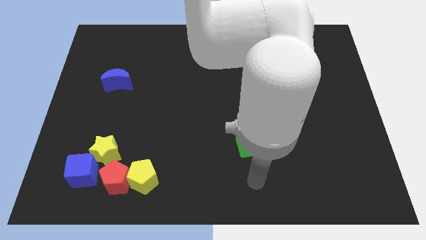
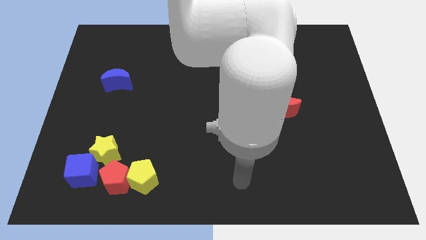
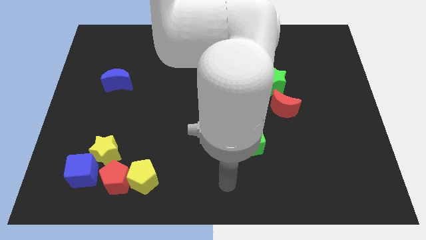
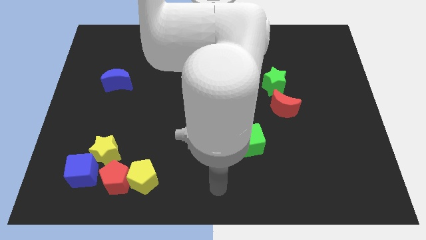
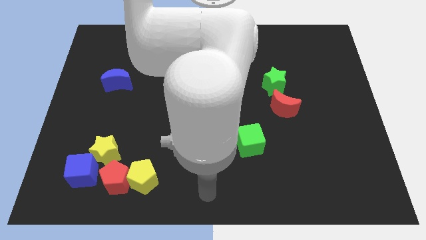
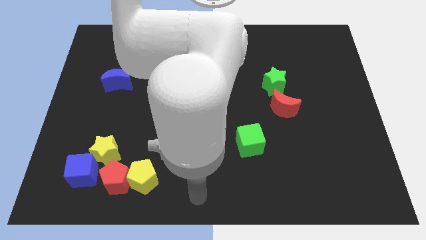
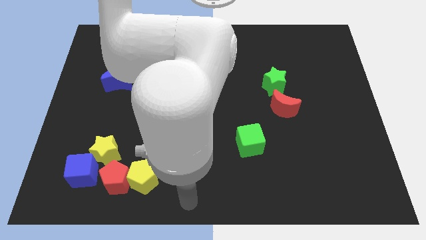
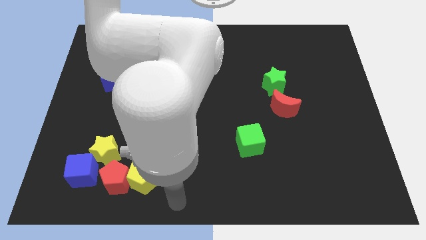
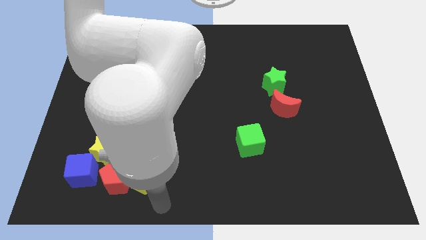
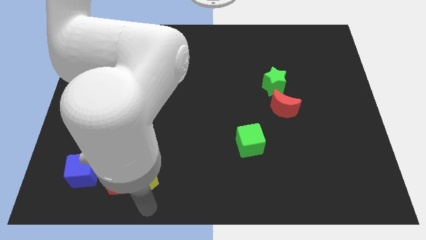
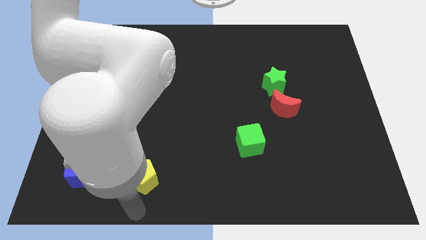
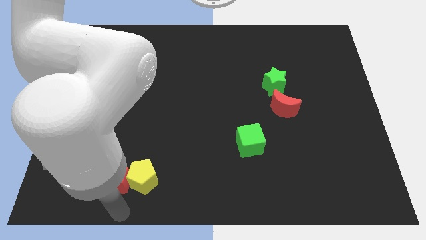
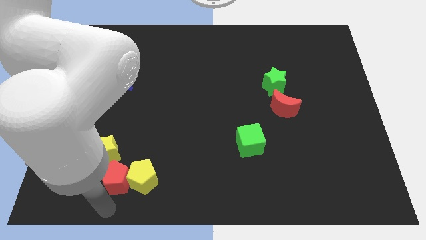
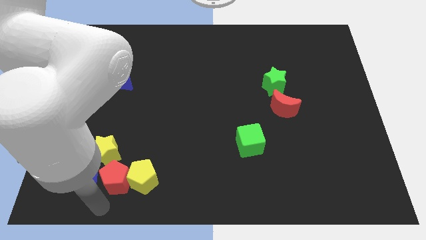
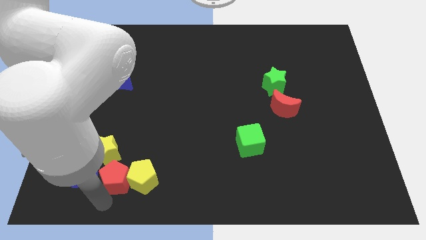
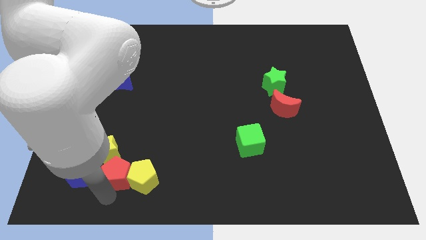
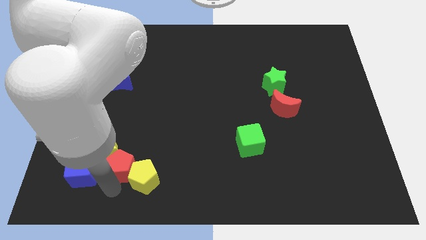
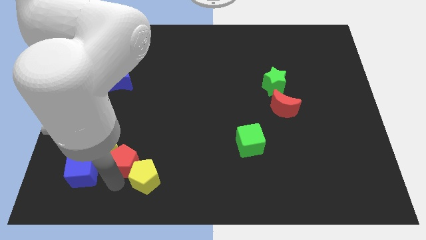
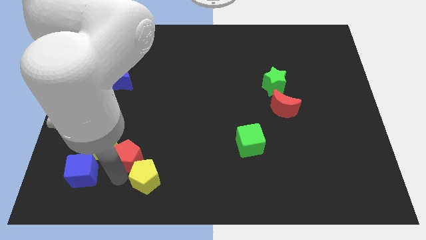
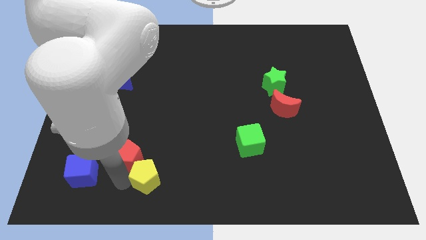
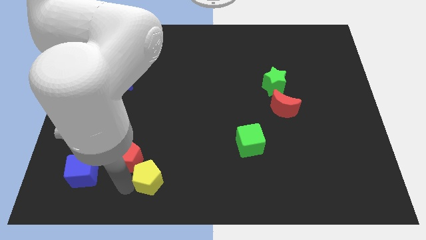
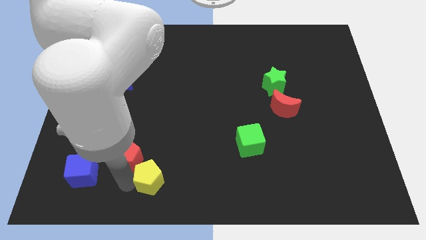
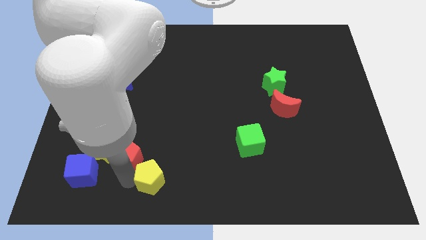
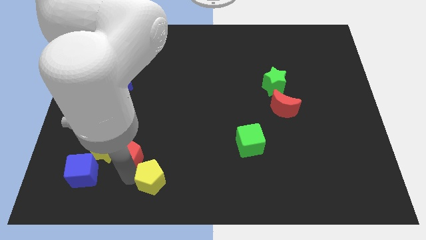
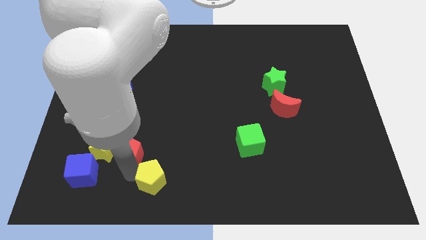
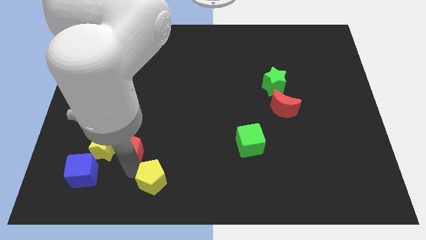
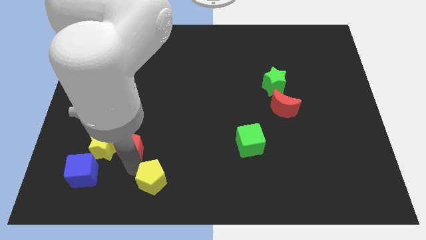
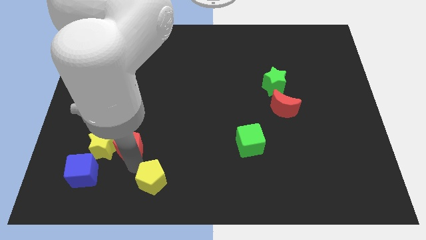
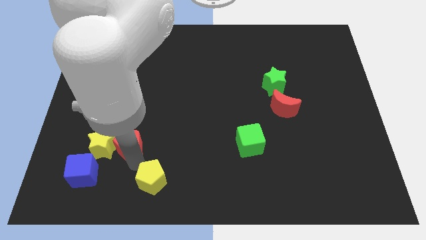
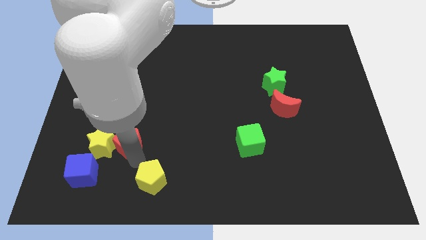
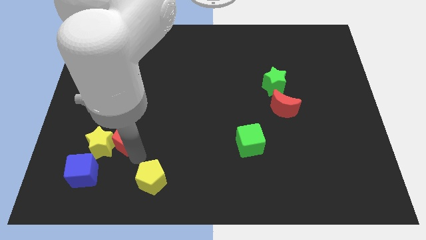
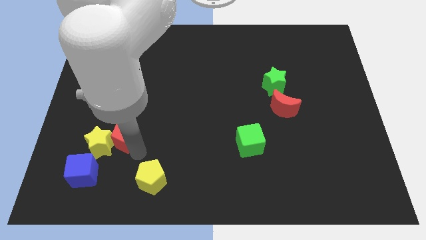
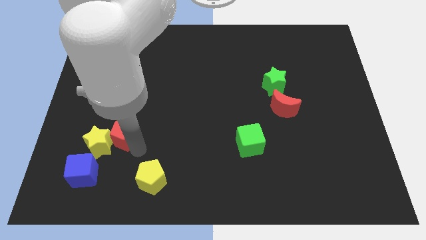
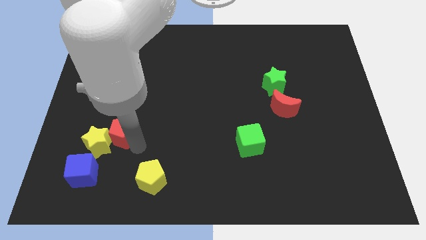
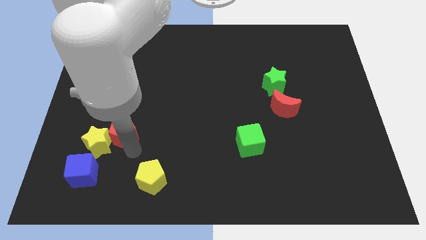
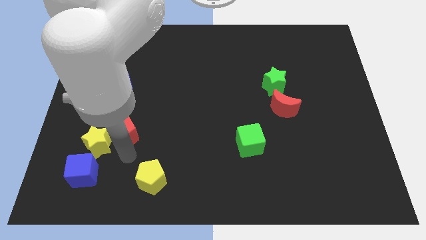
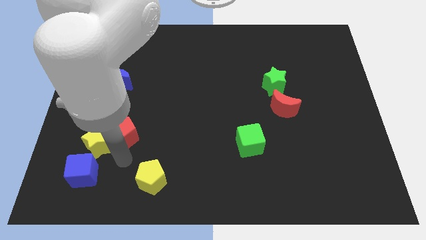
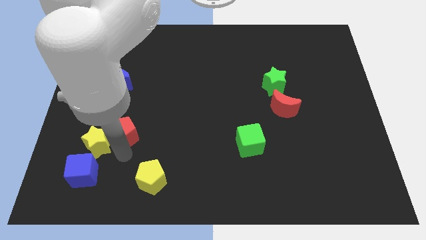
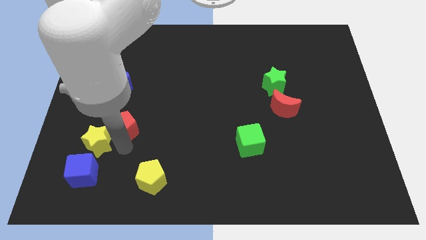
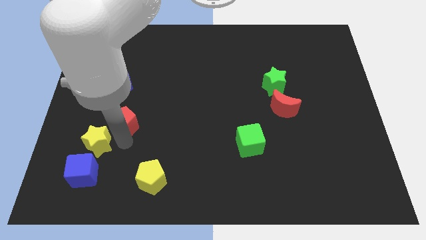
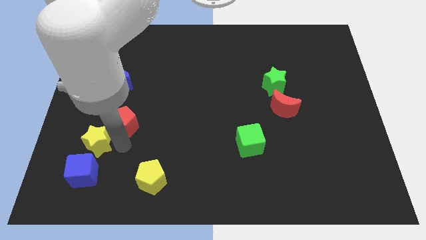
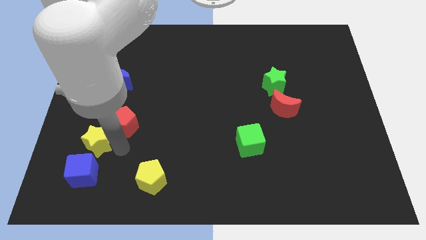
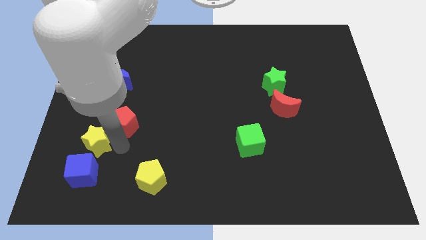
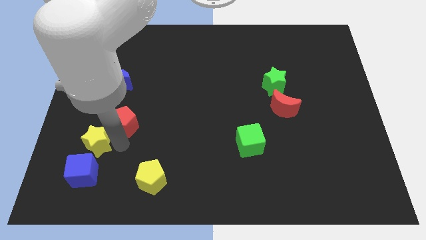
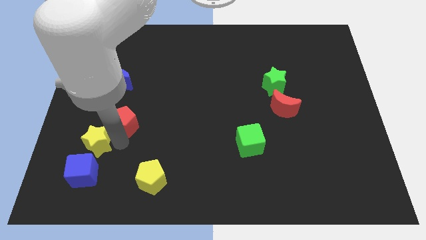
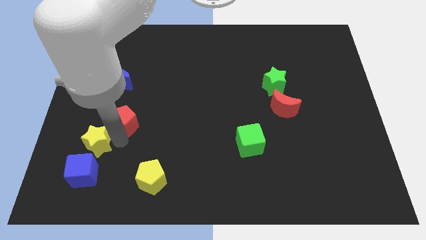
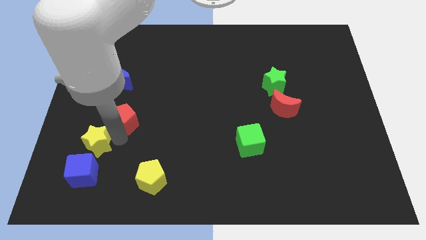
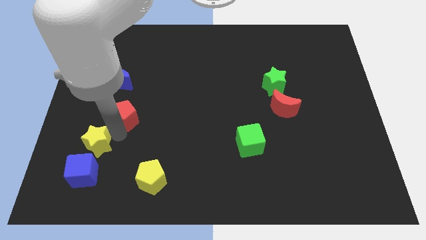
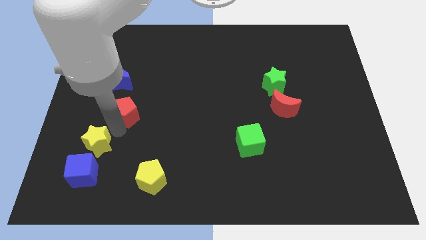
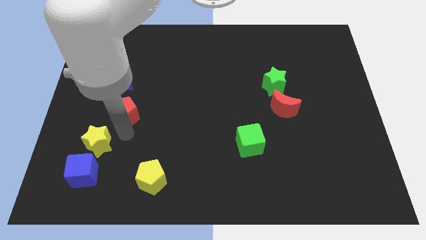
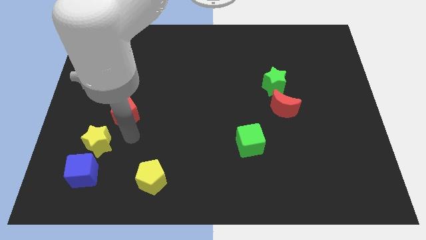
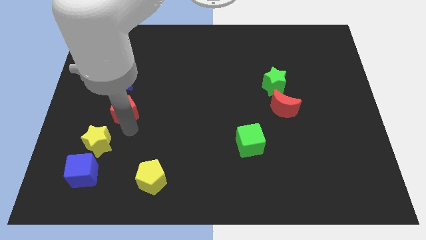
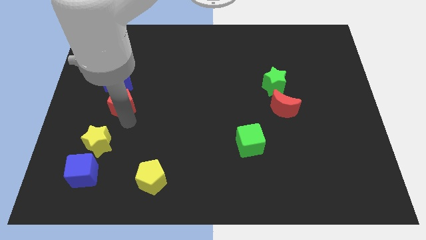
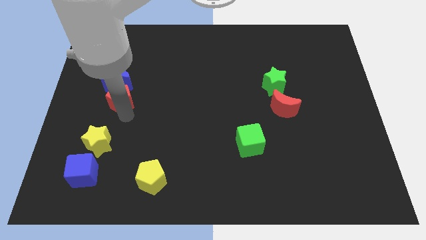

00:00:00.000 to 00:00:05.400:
put the red pentagon towards the blue moon

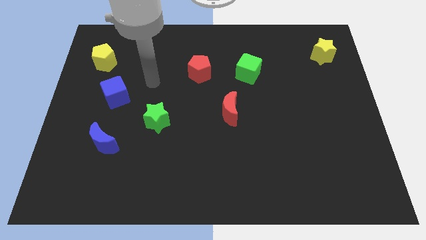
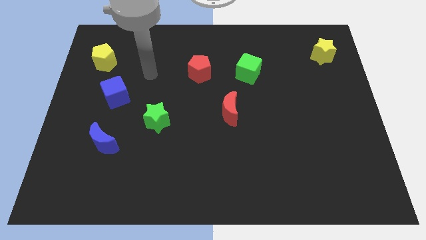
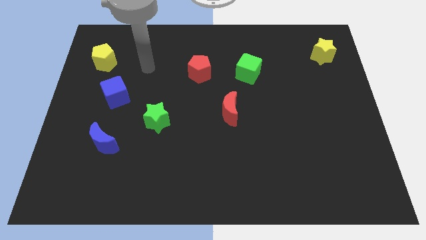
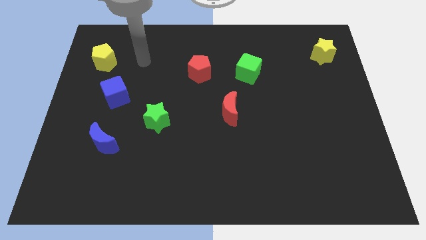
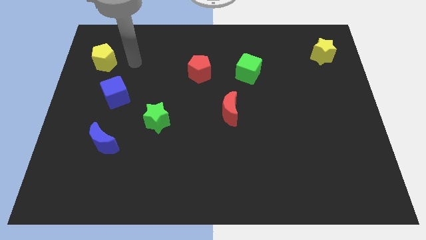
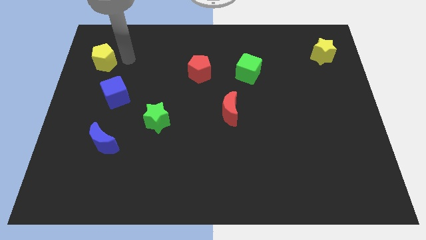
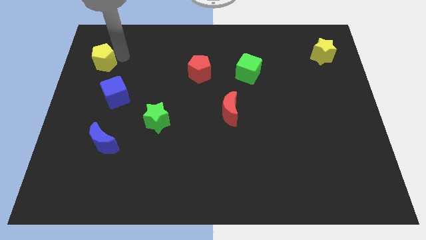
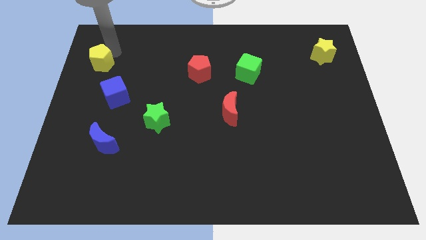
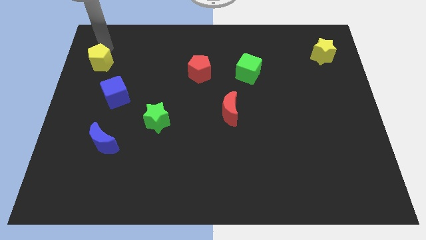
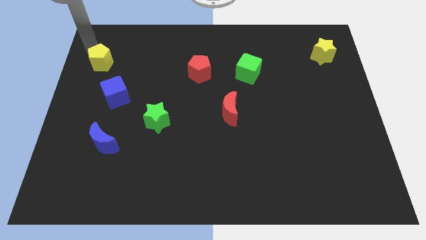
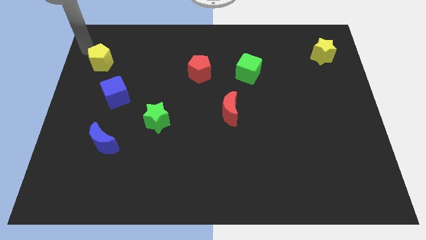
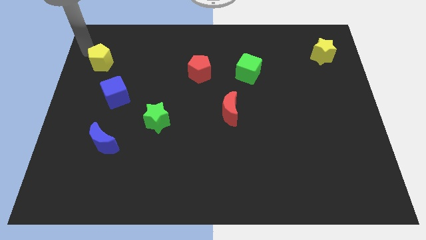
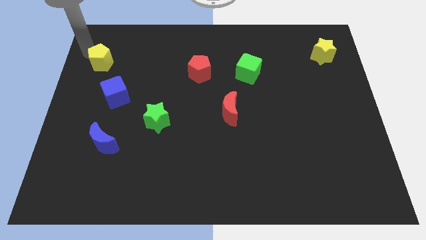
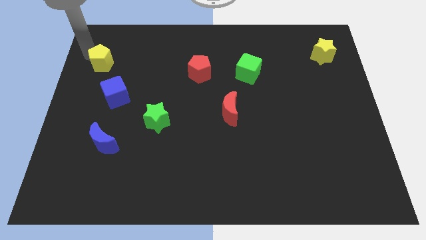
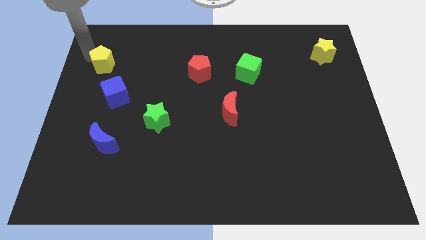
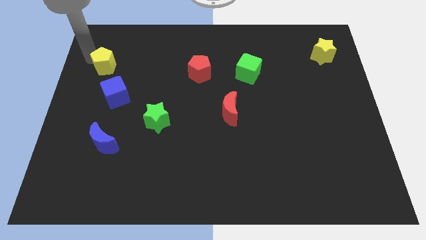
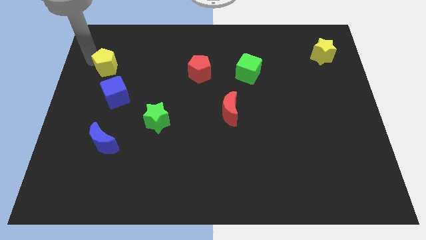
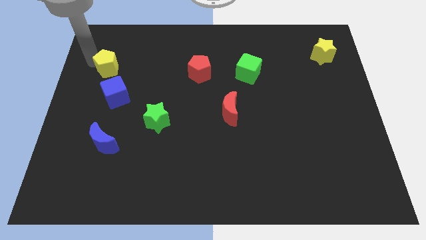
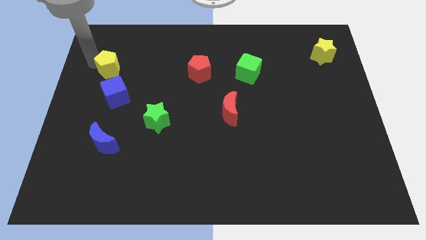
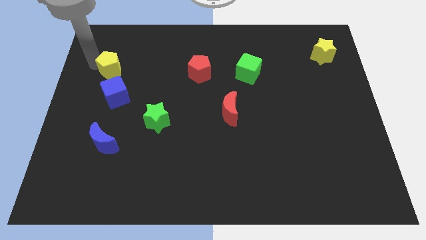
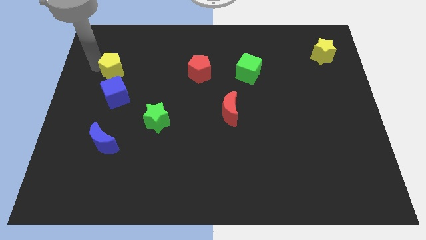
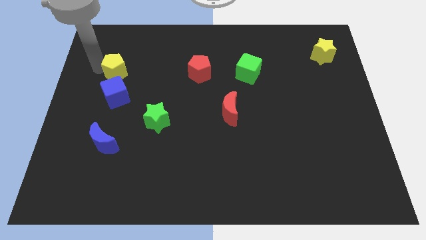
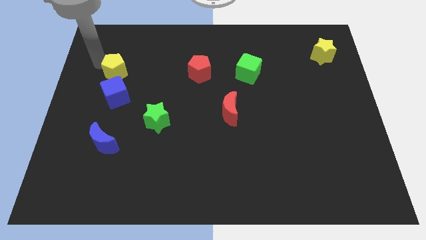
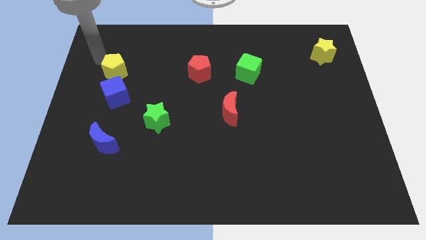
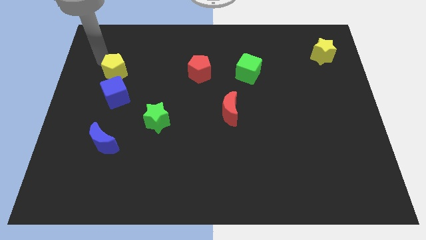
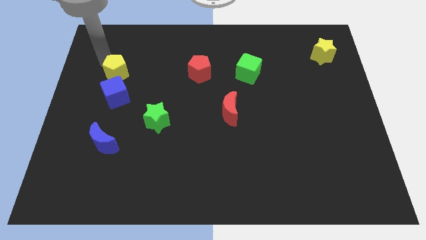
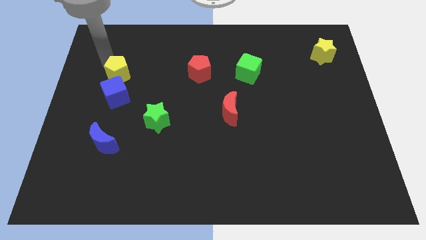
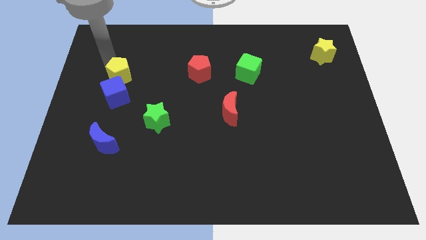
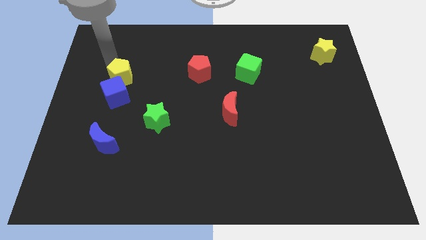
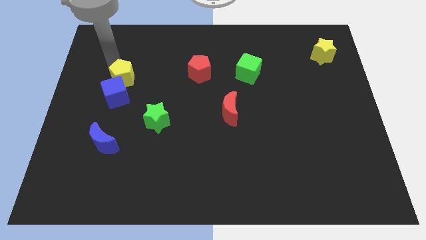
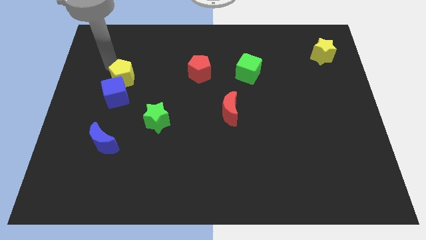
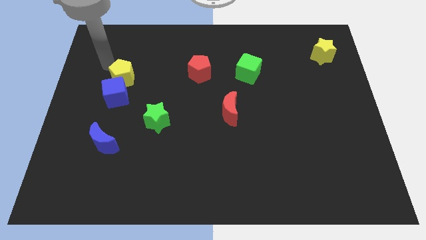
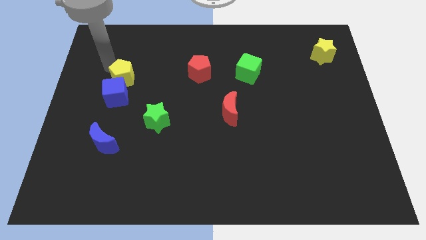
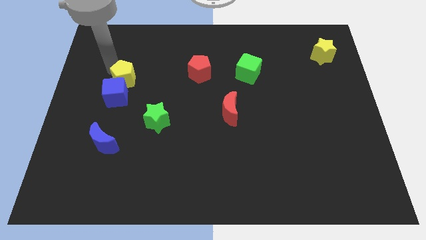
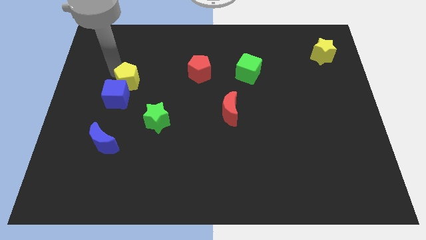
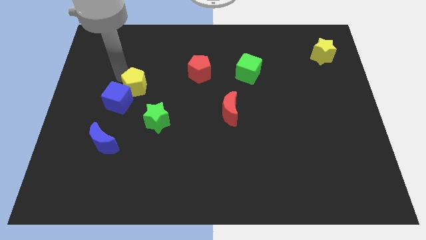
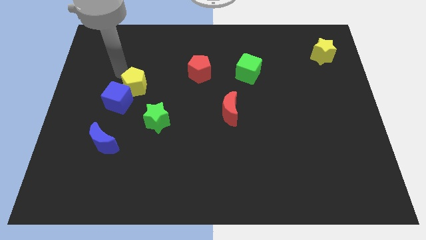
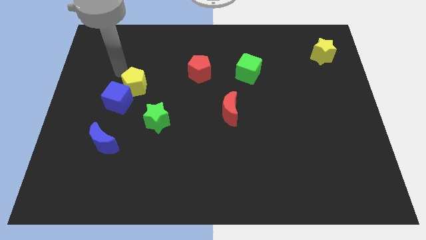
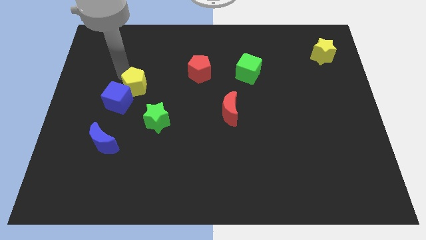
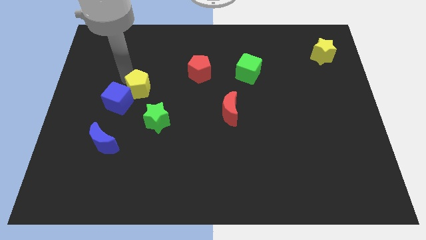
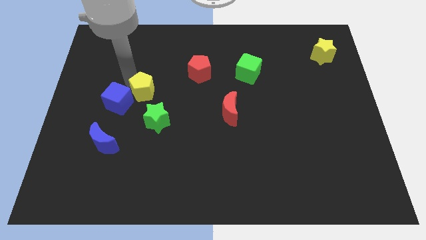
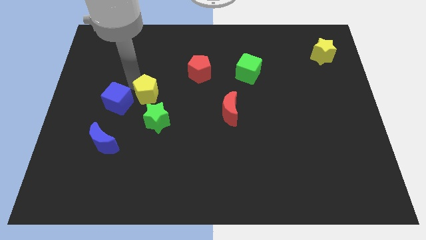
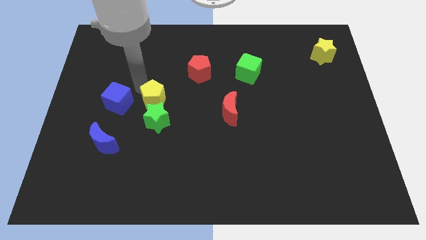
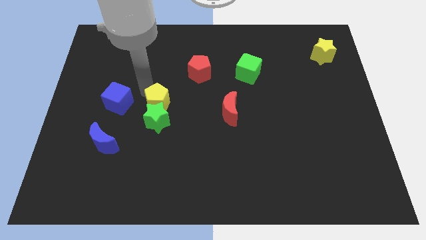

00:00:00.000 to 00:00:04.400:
put the yellow pentagon close to the green star
